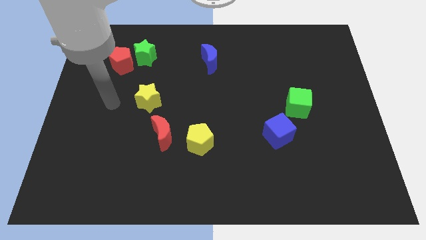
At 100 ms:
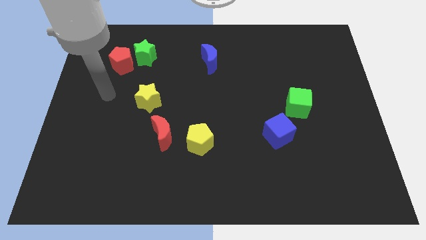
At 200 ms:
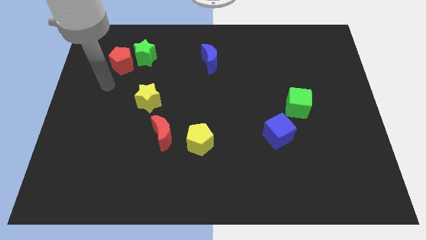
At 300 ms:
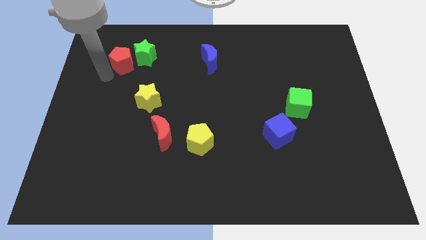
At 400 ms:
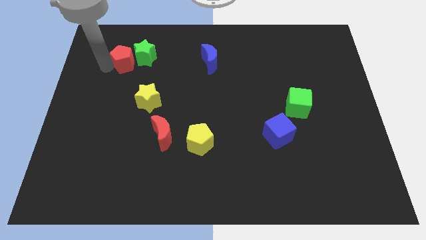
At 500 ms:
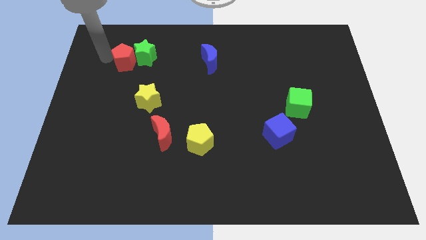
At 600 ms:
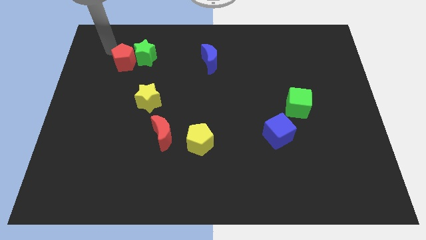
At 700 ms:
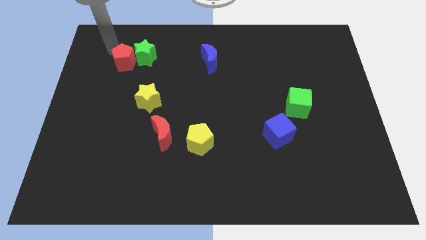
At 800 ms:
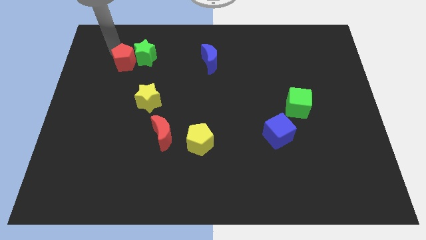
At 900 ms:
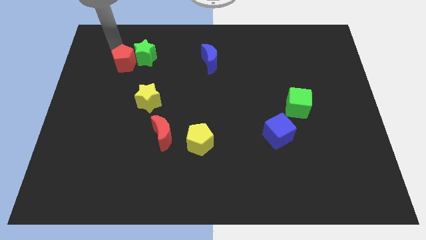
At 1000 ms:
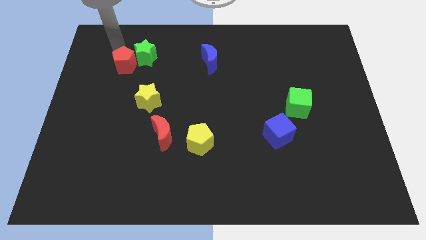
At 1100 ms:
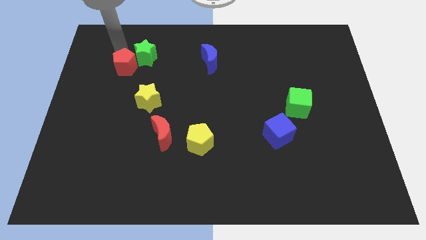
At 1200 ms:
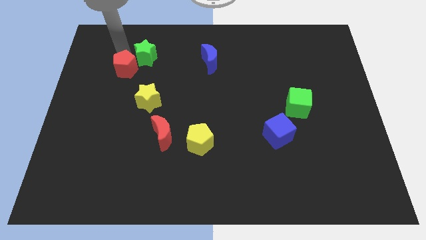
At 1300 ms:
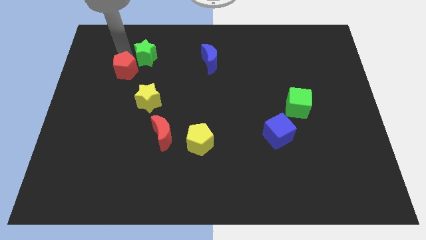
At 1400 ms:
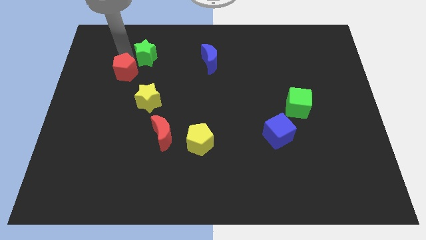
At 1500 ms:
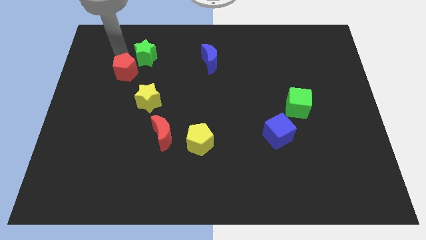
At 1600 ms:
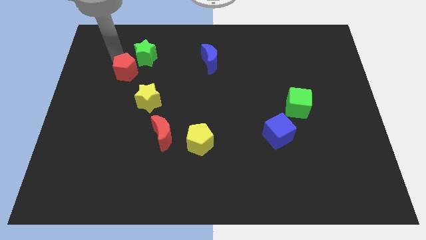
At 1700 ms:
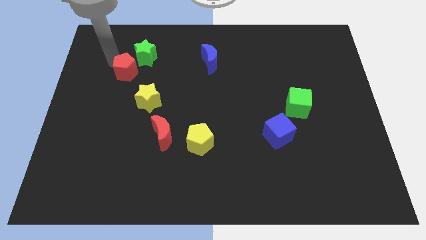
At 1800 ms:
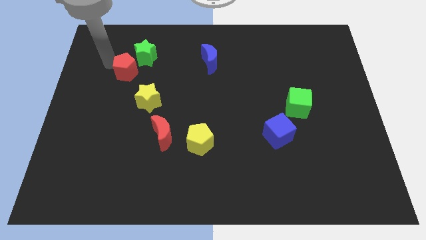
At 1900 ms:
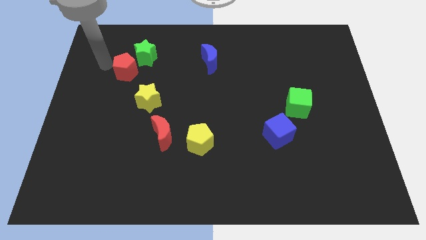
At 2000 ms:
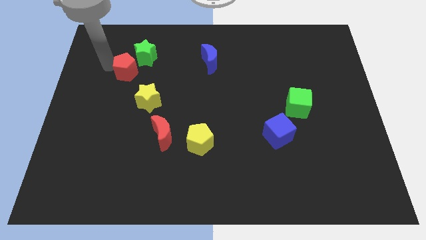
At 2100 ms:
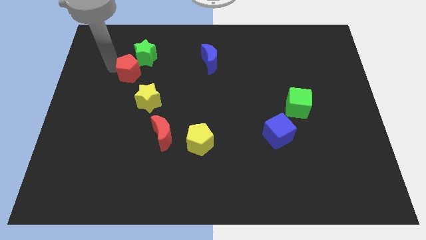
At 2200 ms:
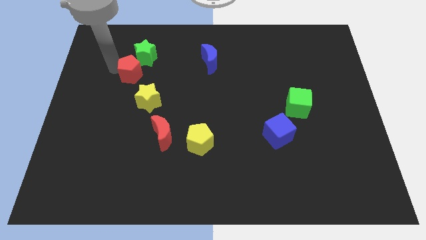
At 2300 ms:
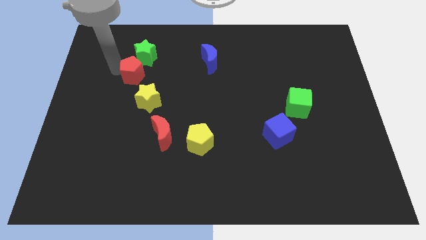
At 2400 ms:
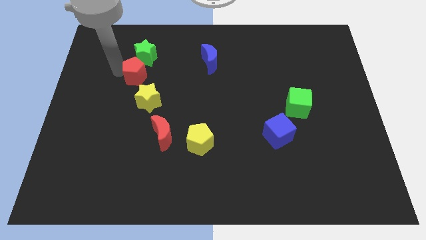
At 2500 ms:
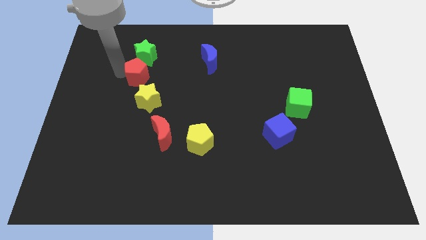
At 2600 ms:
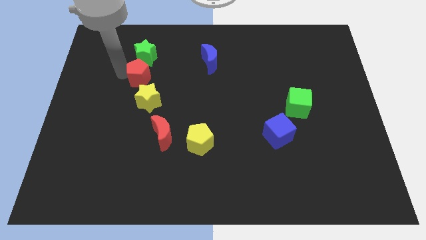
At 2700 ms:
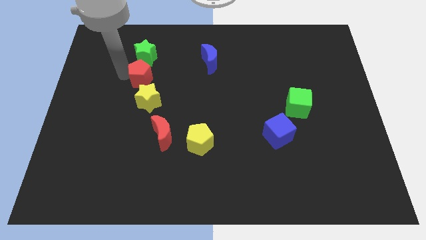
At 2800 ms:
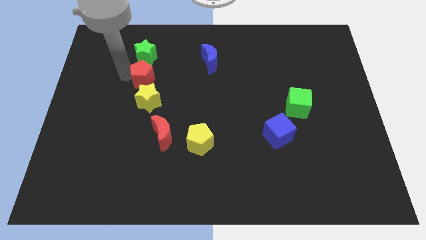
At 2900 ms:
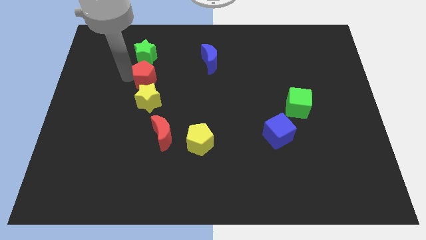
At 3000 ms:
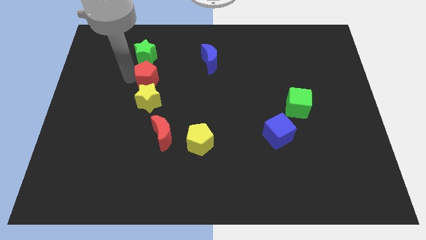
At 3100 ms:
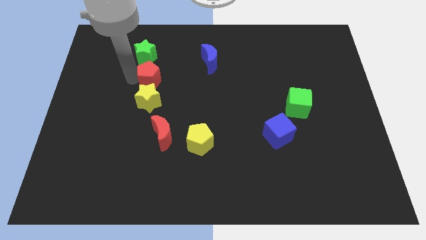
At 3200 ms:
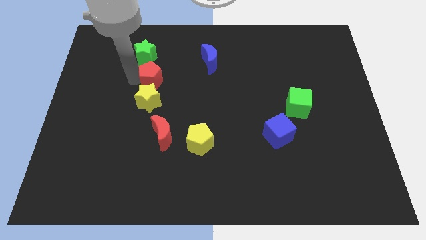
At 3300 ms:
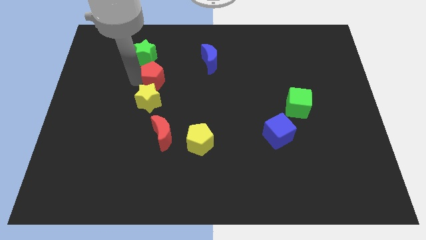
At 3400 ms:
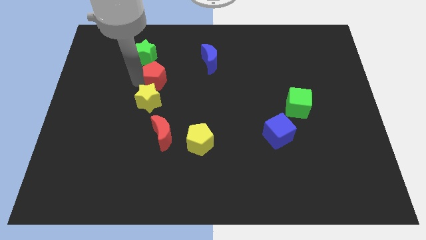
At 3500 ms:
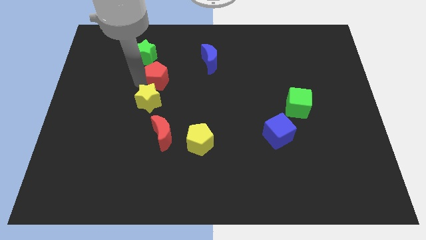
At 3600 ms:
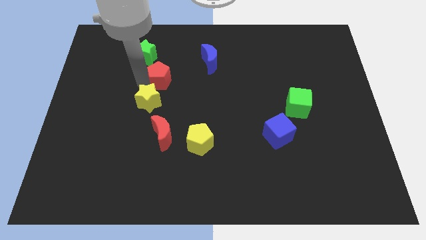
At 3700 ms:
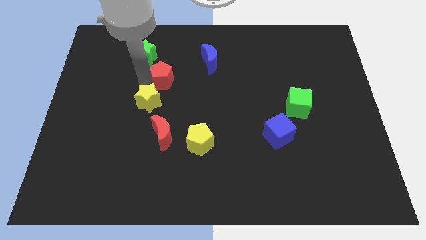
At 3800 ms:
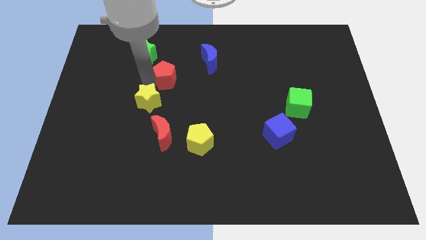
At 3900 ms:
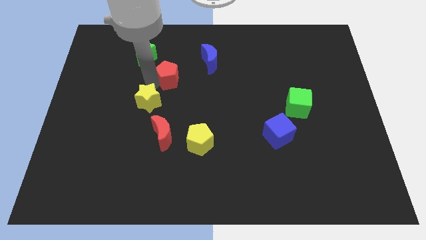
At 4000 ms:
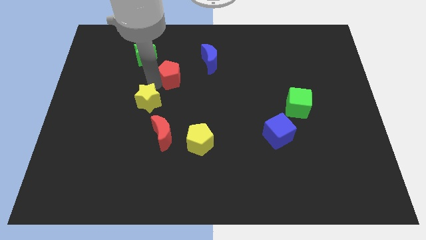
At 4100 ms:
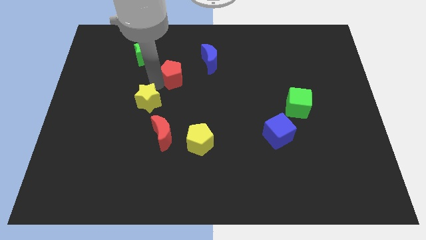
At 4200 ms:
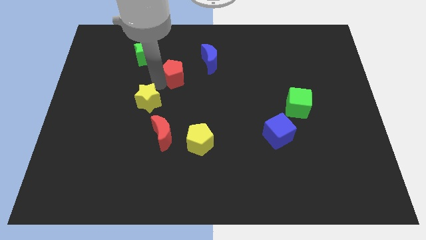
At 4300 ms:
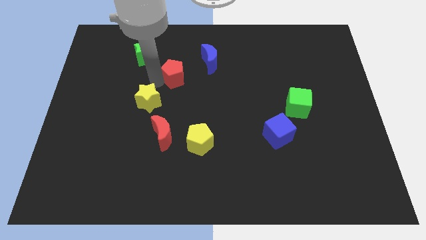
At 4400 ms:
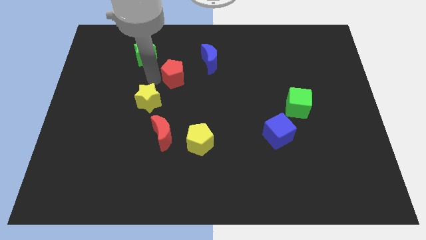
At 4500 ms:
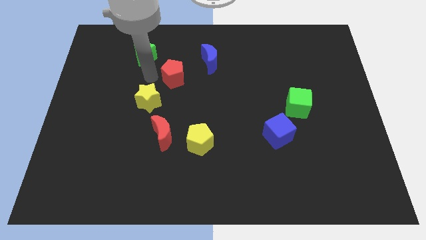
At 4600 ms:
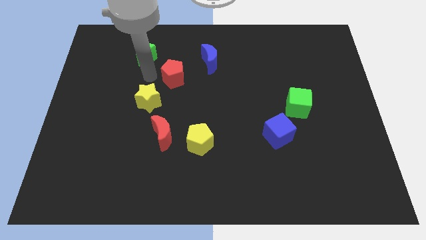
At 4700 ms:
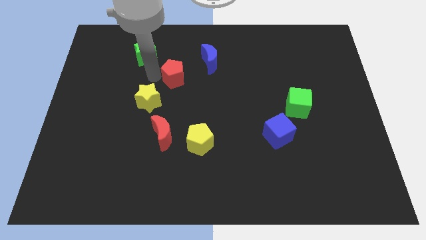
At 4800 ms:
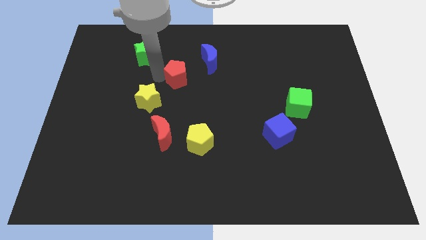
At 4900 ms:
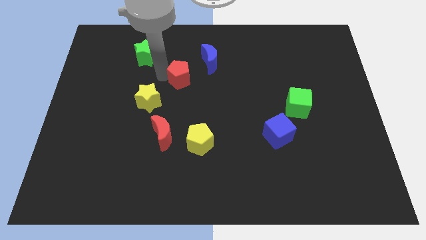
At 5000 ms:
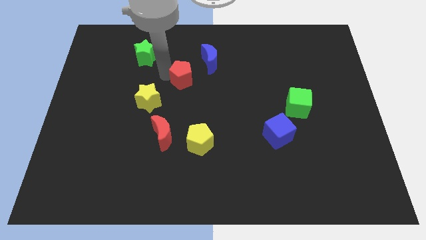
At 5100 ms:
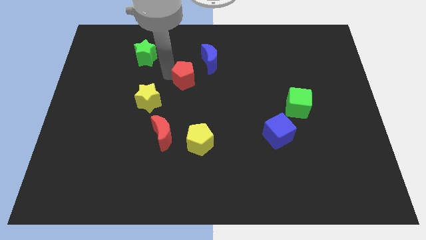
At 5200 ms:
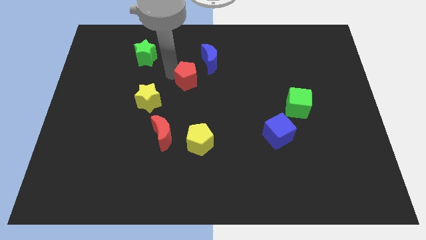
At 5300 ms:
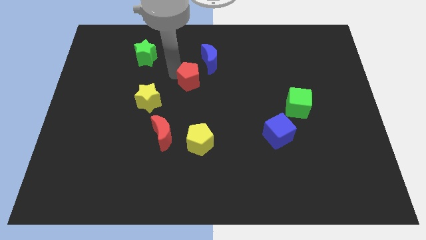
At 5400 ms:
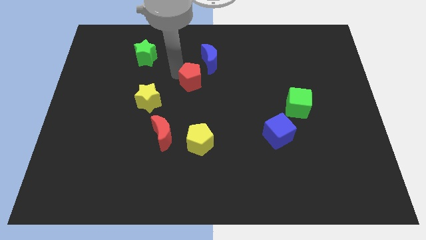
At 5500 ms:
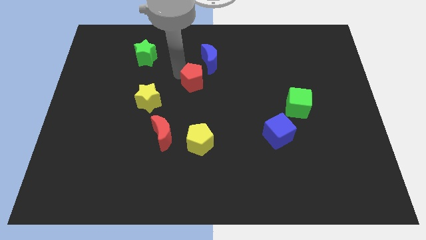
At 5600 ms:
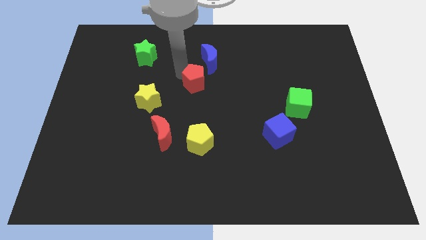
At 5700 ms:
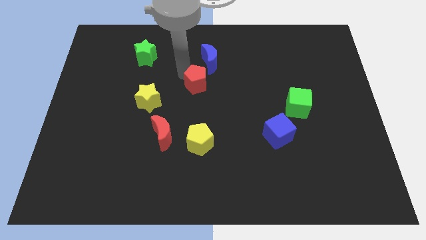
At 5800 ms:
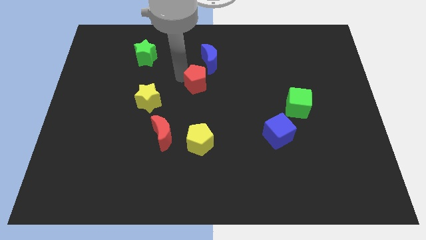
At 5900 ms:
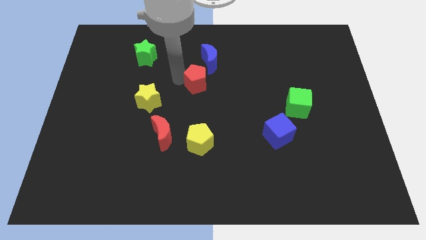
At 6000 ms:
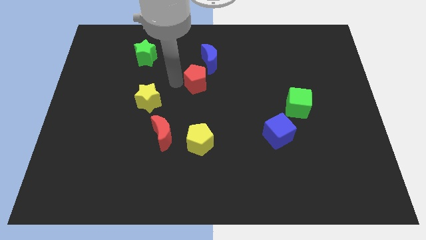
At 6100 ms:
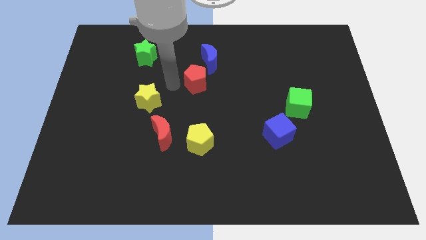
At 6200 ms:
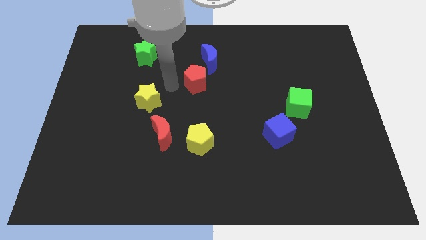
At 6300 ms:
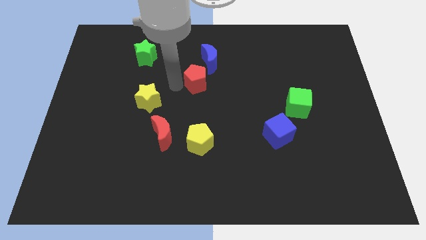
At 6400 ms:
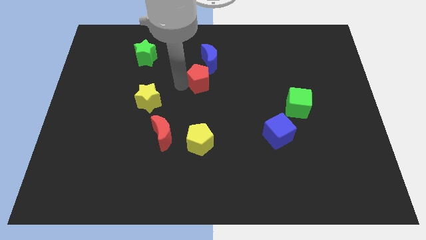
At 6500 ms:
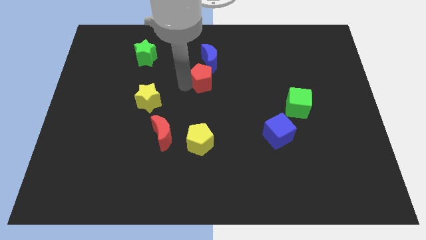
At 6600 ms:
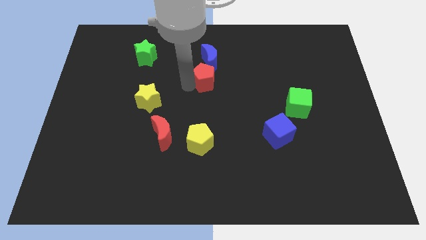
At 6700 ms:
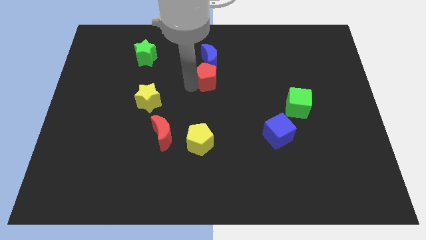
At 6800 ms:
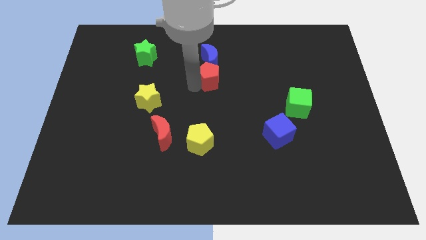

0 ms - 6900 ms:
push the red pentagon to the bottom right side of the blue moon
